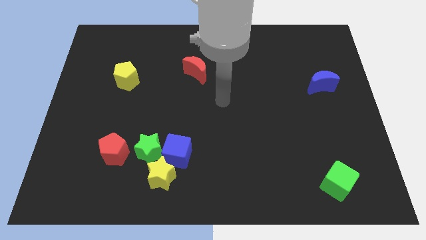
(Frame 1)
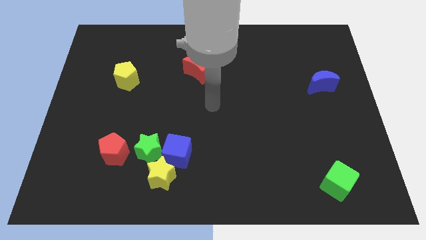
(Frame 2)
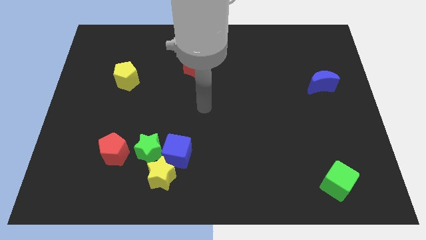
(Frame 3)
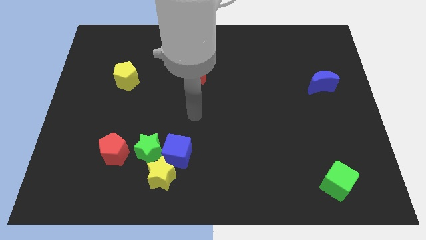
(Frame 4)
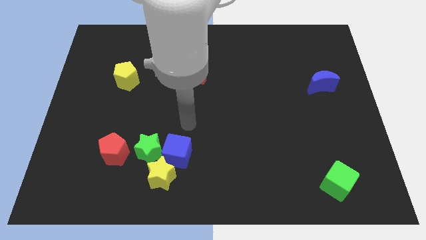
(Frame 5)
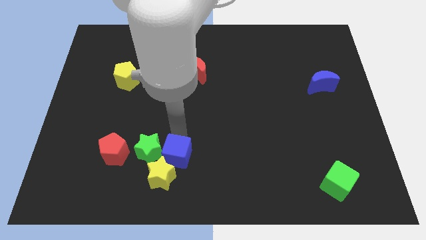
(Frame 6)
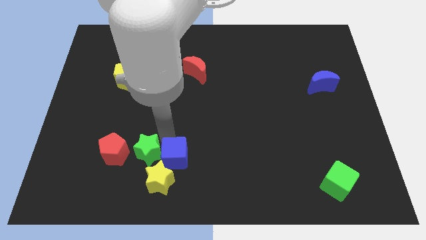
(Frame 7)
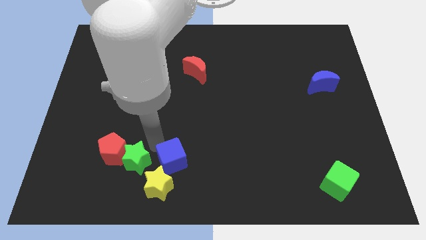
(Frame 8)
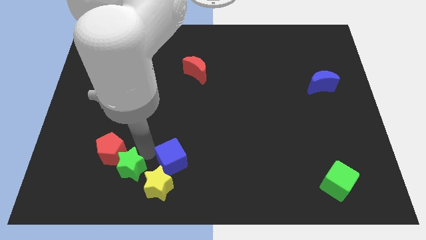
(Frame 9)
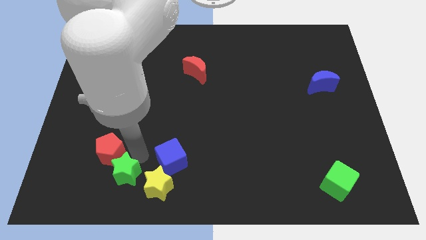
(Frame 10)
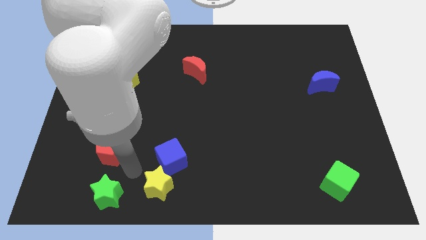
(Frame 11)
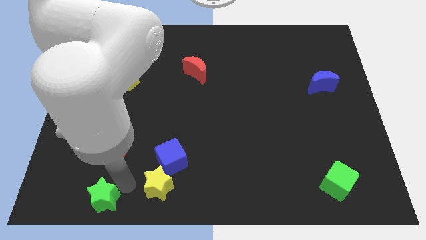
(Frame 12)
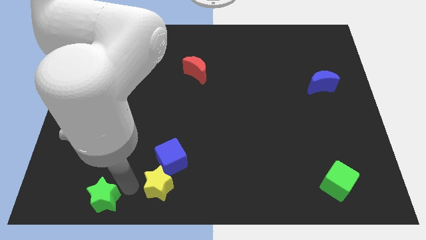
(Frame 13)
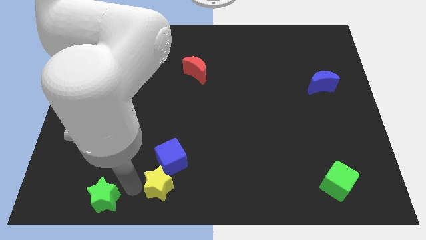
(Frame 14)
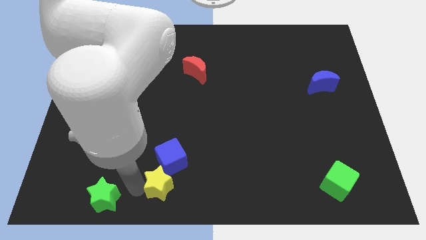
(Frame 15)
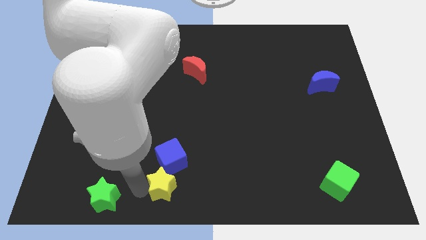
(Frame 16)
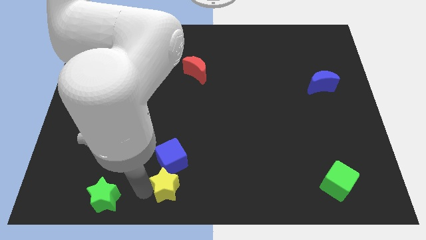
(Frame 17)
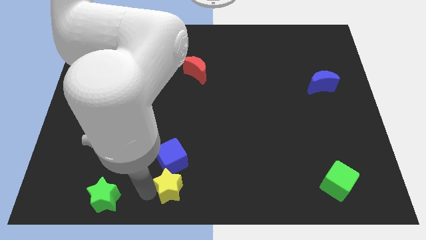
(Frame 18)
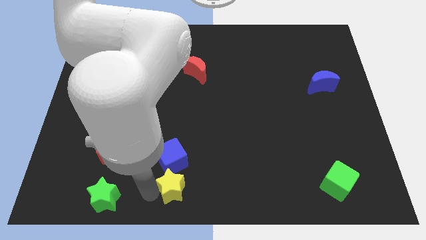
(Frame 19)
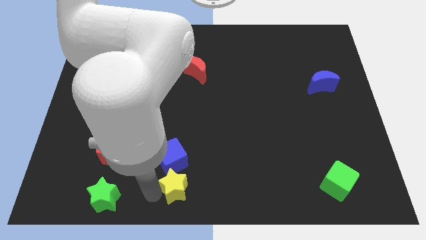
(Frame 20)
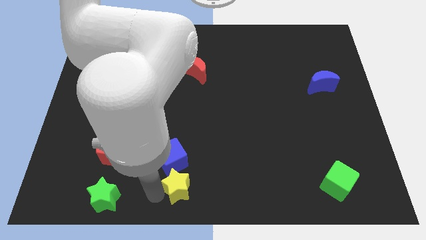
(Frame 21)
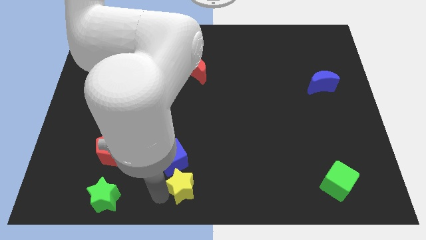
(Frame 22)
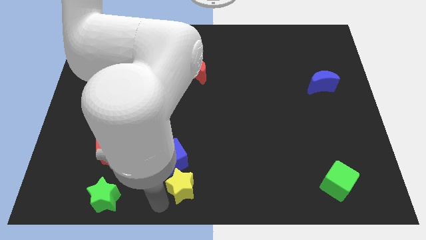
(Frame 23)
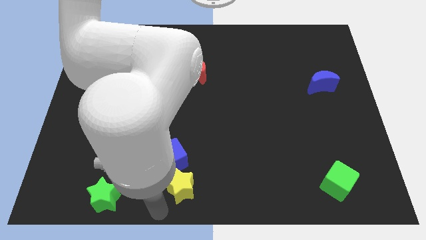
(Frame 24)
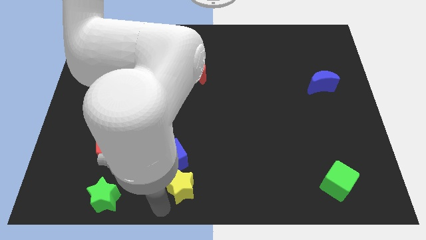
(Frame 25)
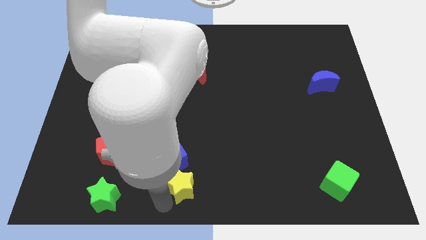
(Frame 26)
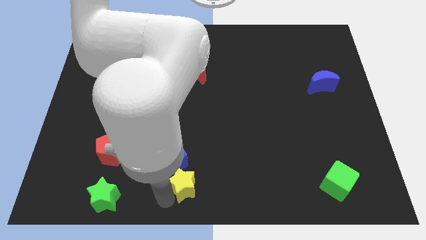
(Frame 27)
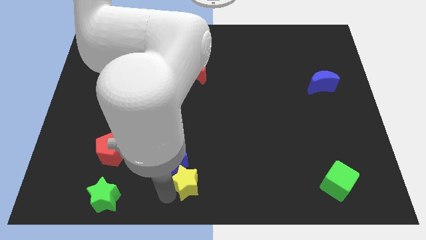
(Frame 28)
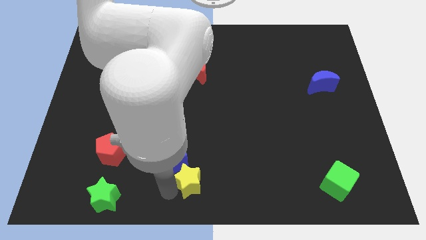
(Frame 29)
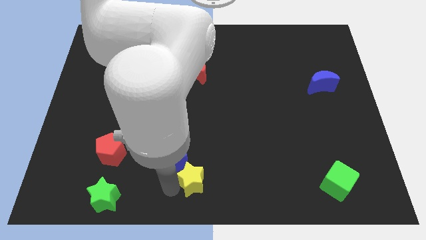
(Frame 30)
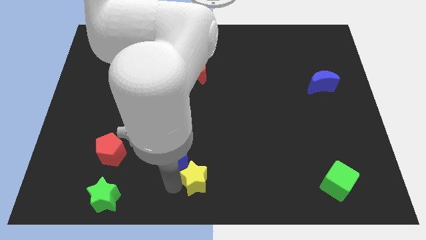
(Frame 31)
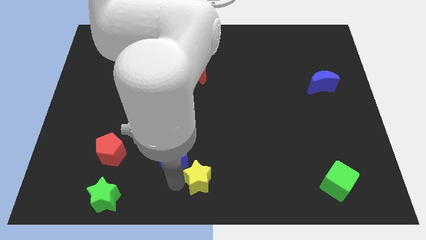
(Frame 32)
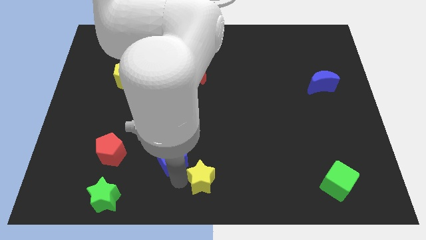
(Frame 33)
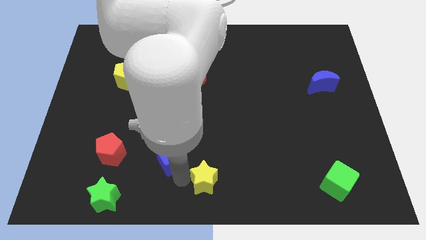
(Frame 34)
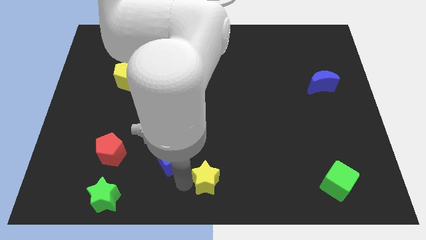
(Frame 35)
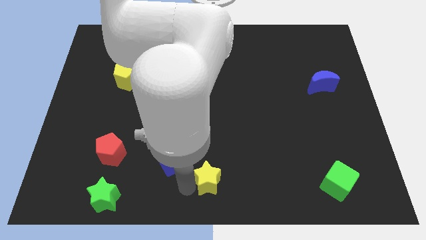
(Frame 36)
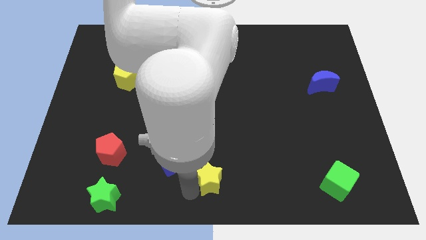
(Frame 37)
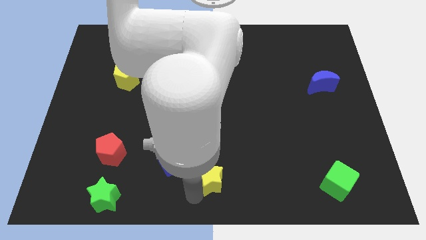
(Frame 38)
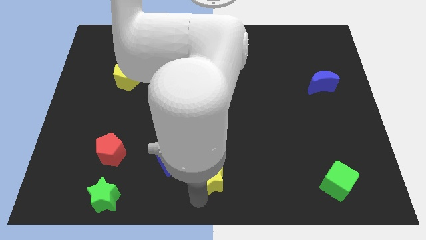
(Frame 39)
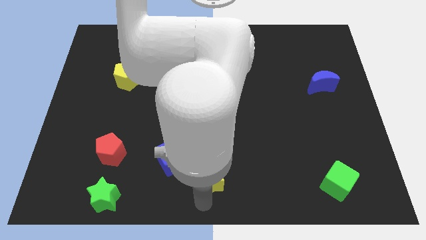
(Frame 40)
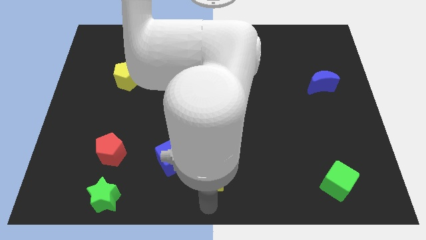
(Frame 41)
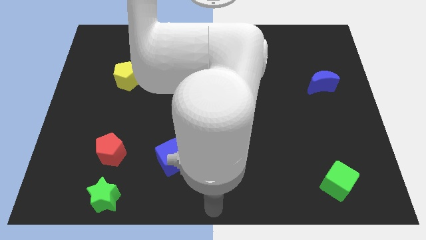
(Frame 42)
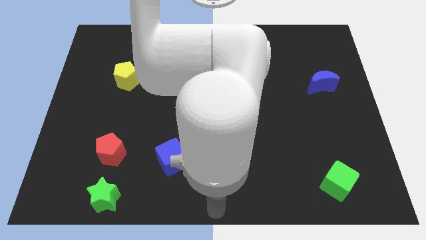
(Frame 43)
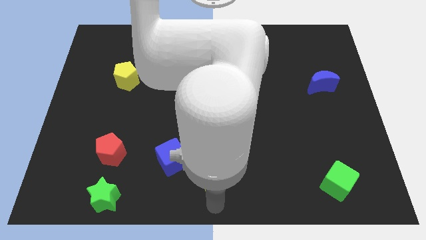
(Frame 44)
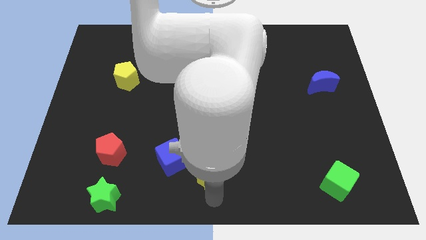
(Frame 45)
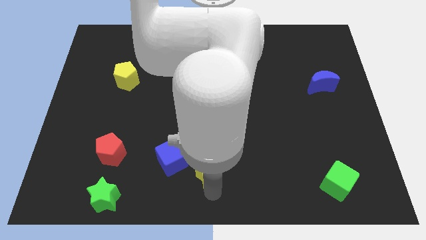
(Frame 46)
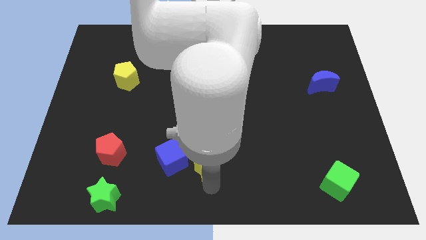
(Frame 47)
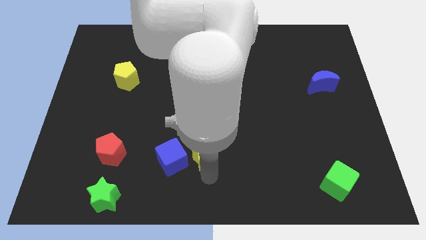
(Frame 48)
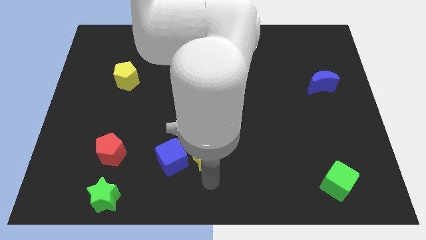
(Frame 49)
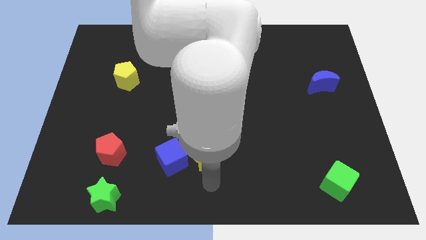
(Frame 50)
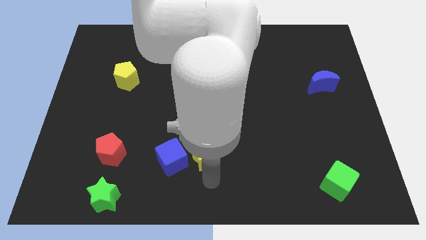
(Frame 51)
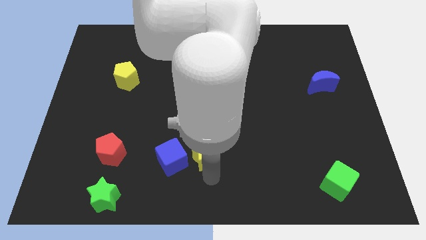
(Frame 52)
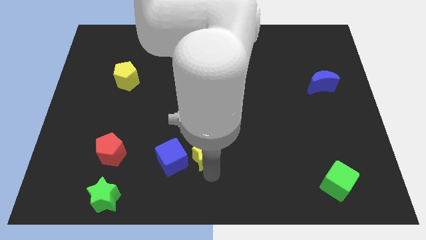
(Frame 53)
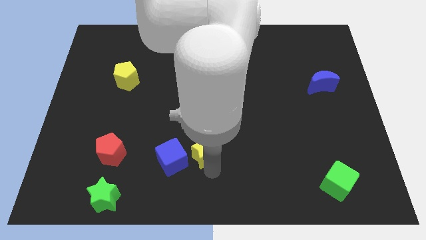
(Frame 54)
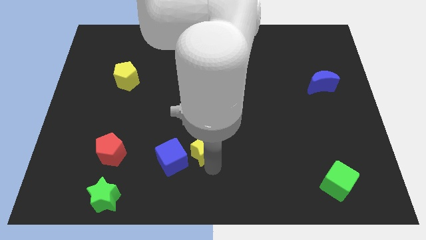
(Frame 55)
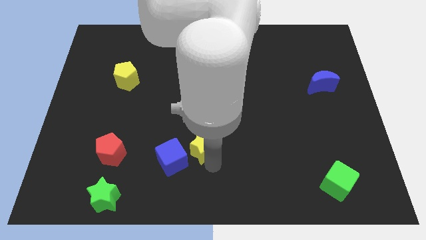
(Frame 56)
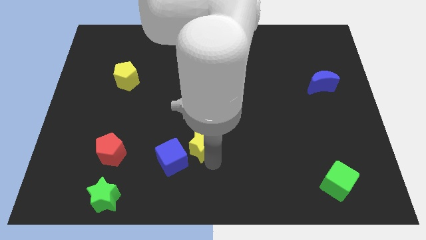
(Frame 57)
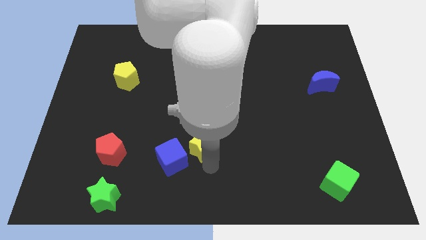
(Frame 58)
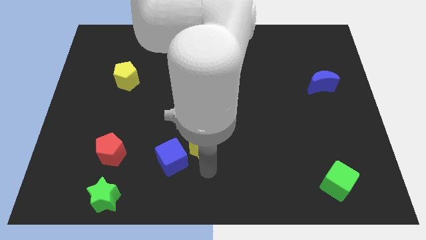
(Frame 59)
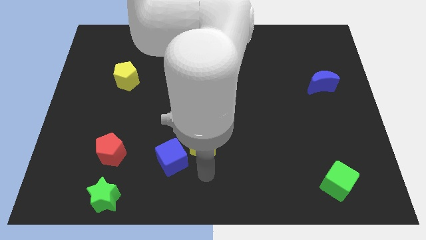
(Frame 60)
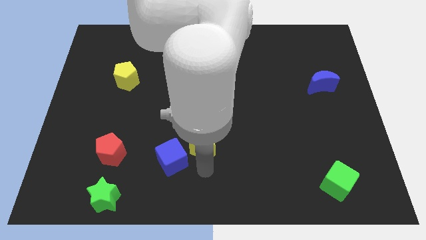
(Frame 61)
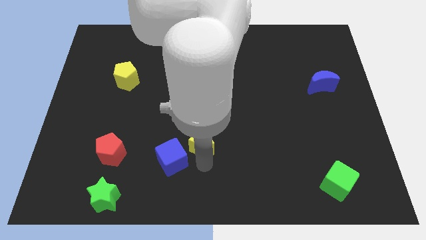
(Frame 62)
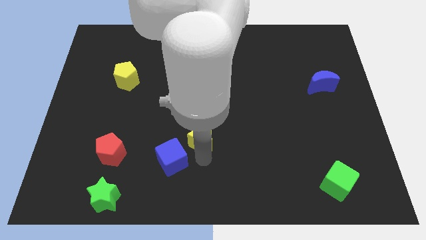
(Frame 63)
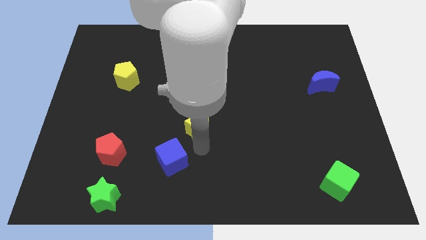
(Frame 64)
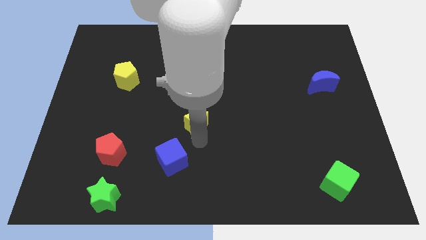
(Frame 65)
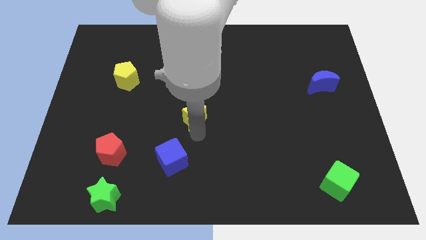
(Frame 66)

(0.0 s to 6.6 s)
move the yellow star below the red moon

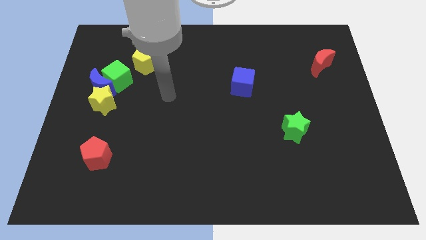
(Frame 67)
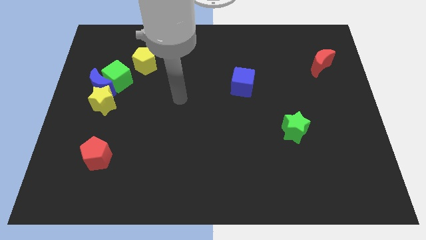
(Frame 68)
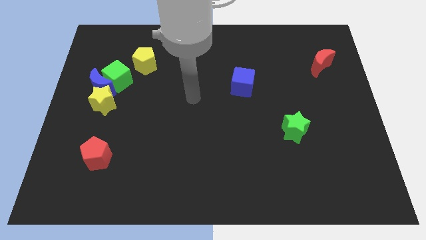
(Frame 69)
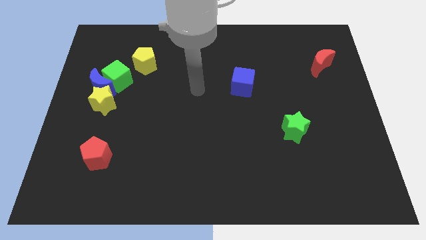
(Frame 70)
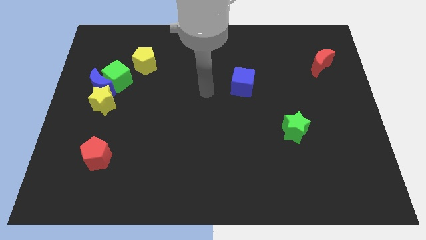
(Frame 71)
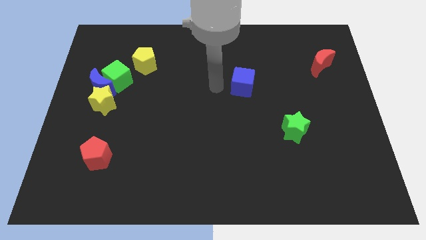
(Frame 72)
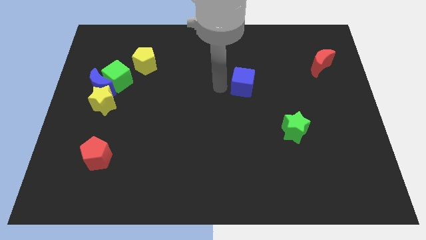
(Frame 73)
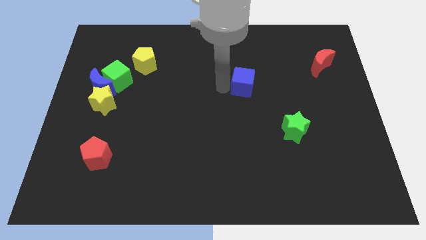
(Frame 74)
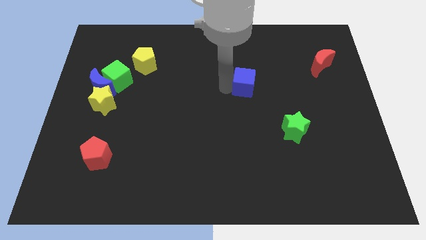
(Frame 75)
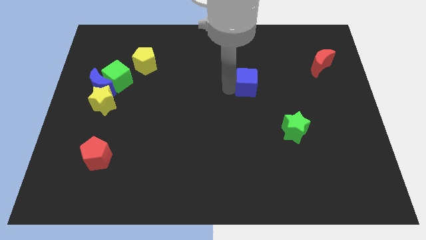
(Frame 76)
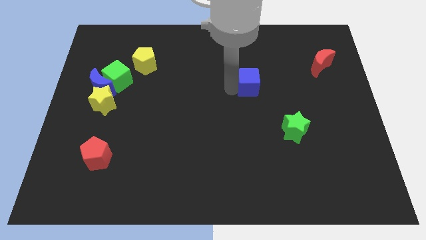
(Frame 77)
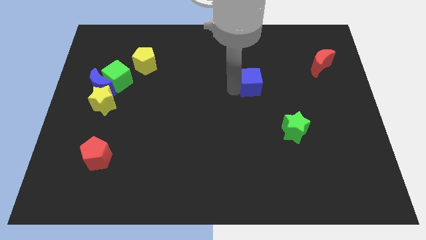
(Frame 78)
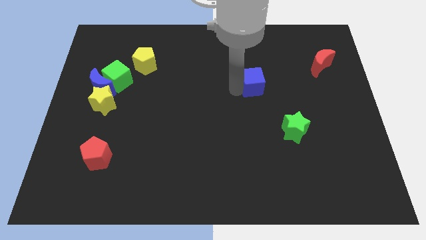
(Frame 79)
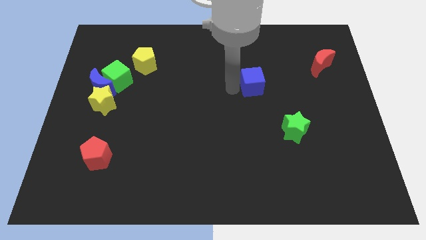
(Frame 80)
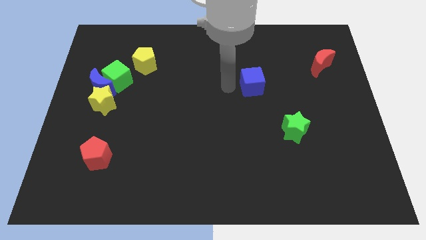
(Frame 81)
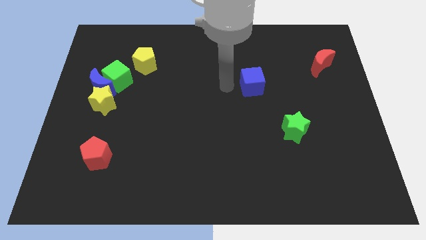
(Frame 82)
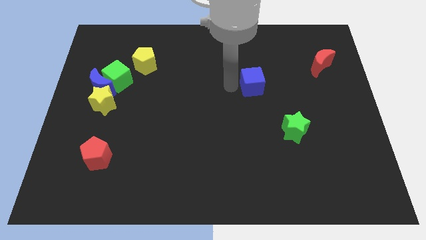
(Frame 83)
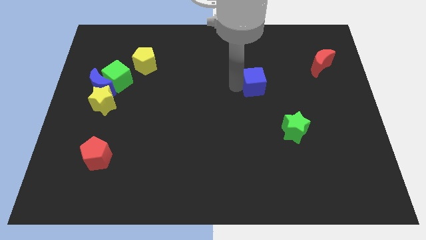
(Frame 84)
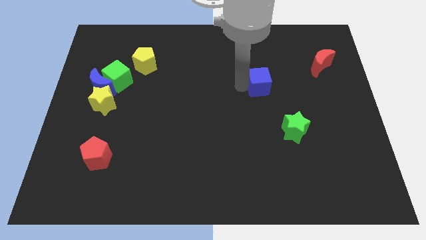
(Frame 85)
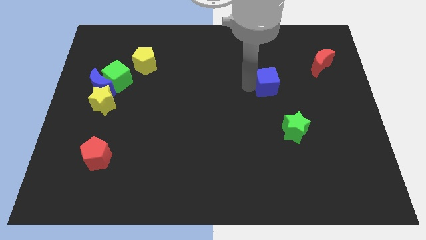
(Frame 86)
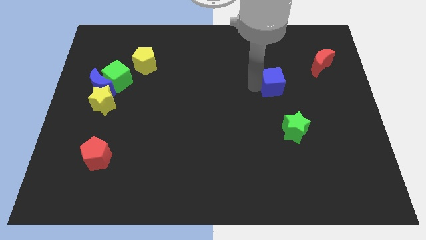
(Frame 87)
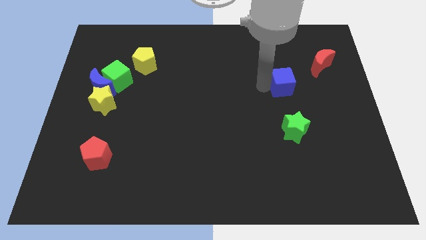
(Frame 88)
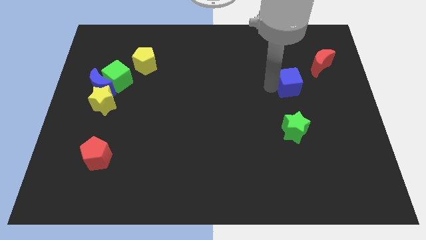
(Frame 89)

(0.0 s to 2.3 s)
move the blue cube to the bottom left side of the red moon
